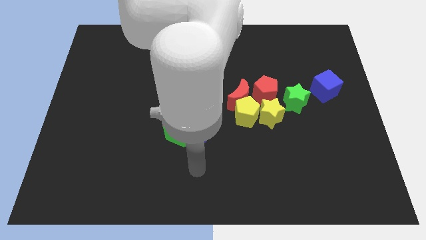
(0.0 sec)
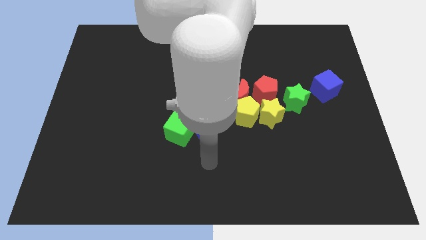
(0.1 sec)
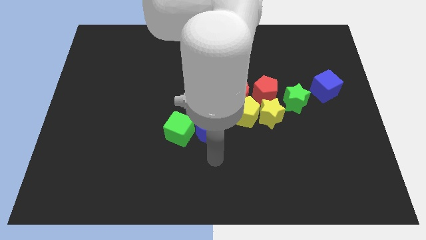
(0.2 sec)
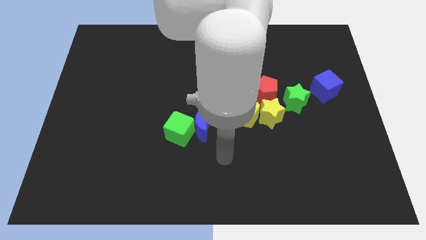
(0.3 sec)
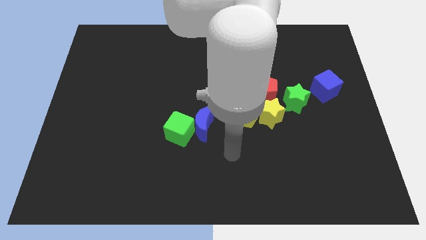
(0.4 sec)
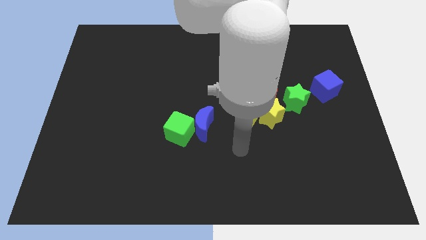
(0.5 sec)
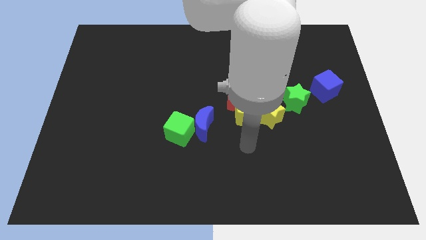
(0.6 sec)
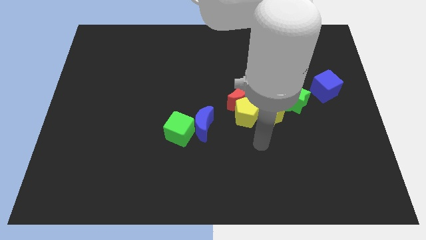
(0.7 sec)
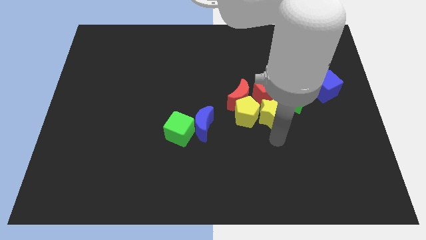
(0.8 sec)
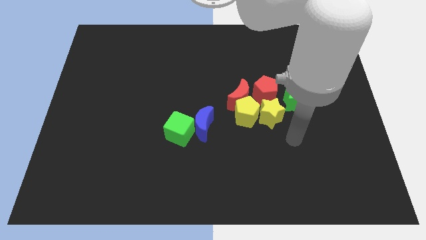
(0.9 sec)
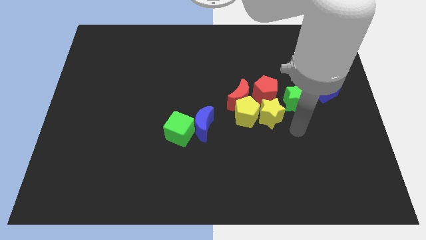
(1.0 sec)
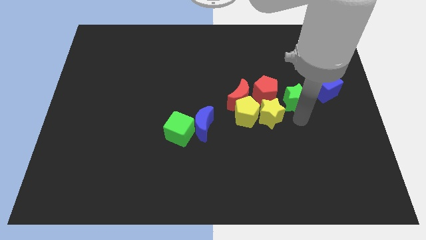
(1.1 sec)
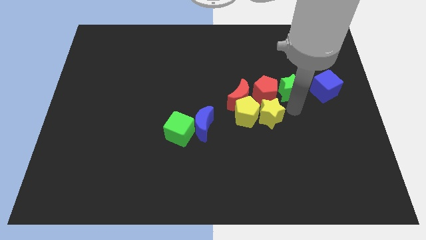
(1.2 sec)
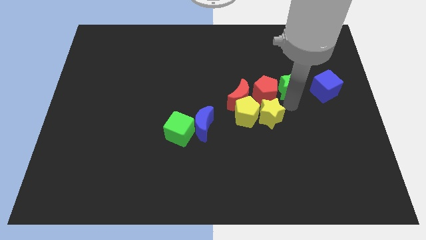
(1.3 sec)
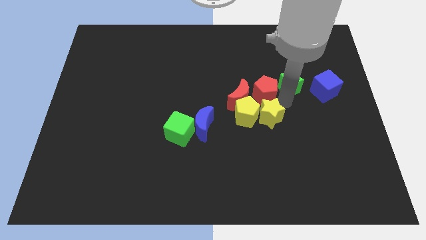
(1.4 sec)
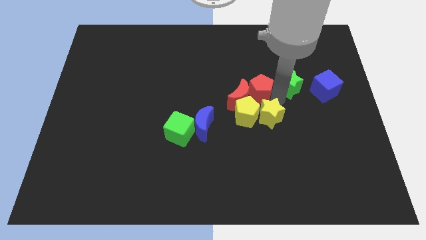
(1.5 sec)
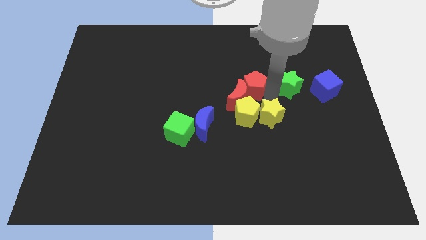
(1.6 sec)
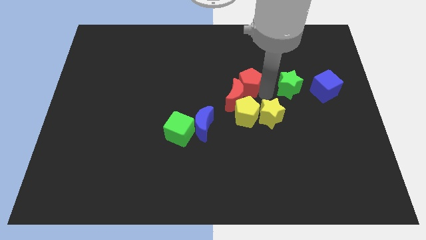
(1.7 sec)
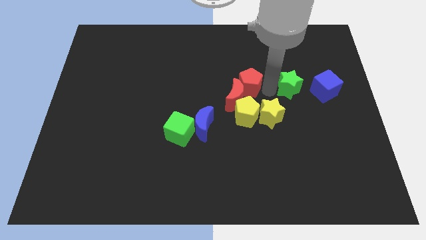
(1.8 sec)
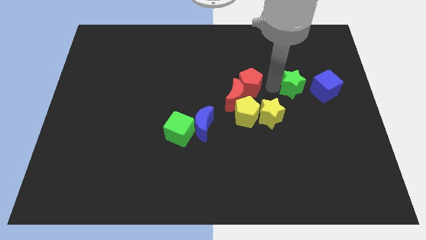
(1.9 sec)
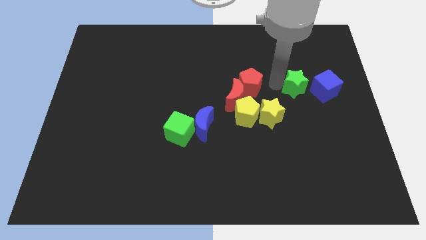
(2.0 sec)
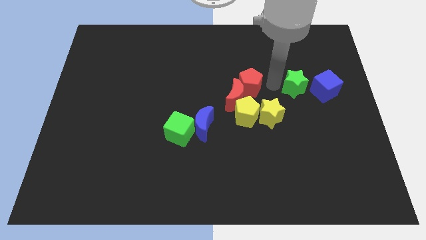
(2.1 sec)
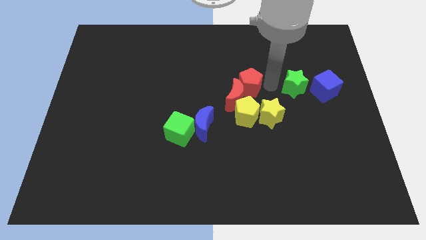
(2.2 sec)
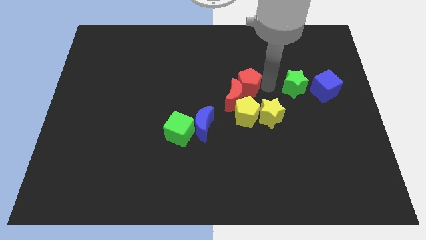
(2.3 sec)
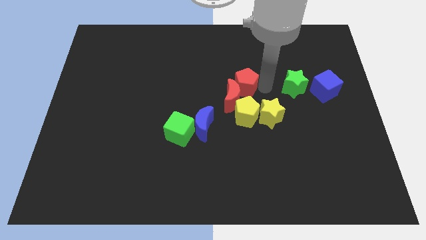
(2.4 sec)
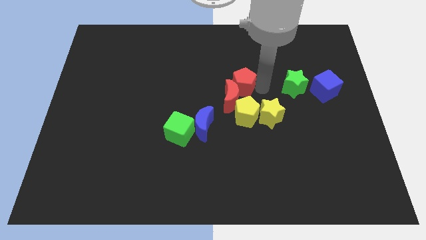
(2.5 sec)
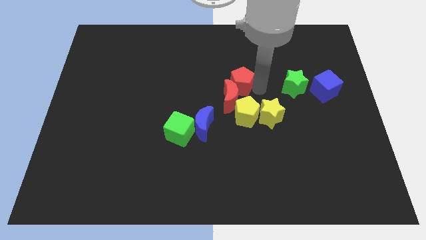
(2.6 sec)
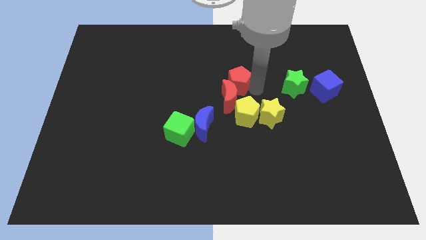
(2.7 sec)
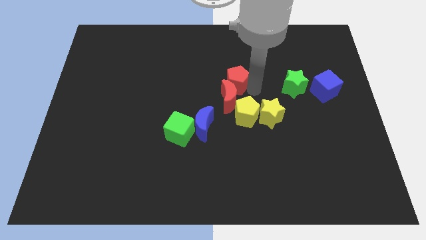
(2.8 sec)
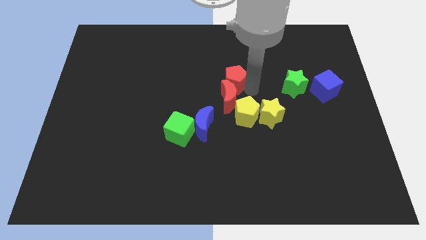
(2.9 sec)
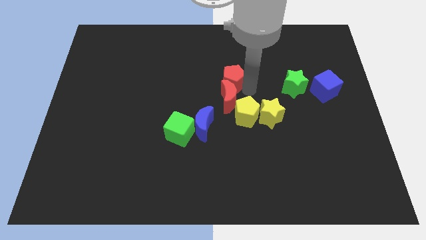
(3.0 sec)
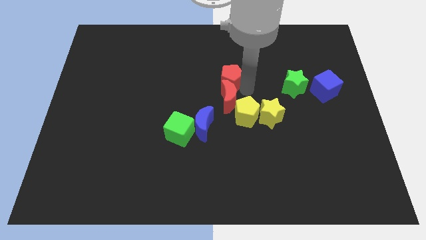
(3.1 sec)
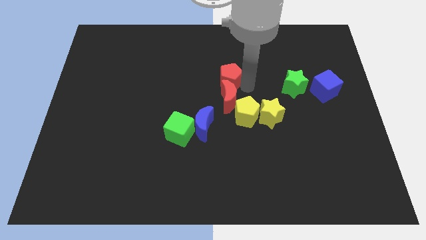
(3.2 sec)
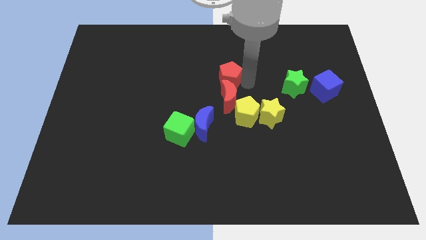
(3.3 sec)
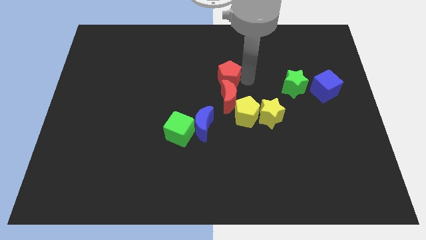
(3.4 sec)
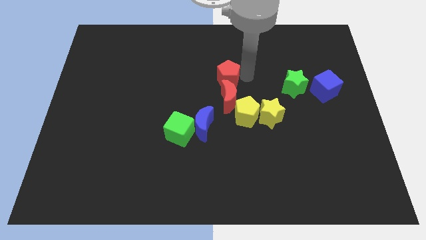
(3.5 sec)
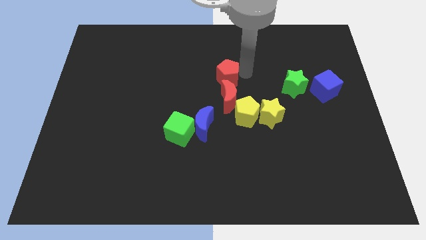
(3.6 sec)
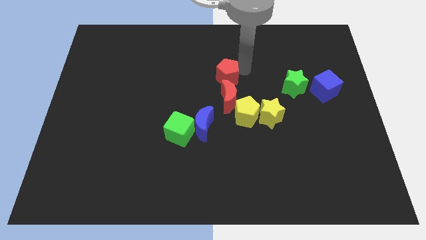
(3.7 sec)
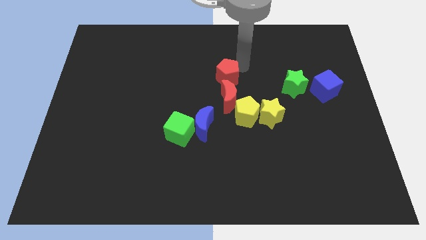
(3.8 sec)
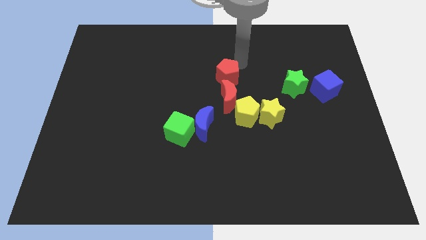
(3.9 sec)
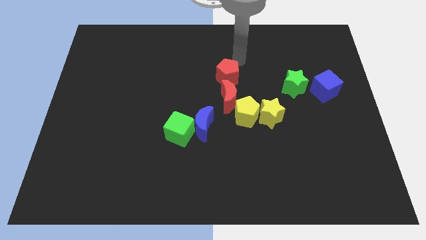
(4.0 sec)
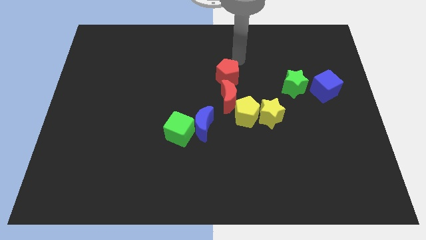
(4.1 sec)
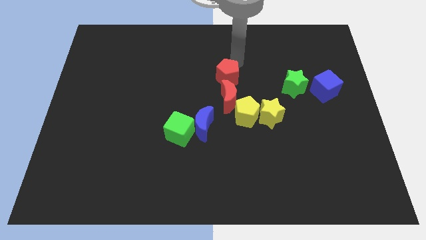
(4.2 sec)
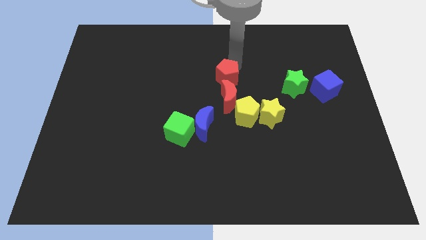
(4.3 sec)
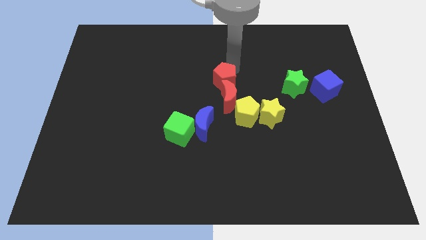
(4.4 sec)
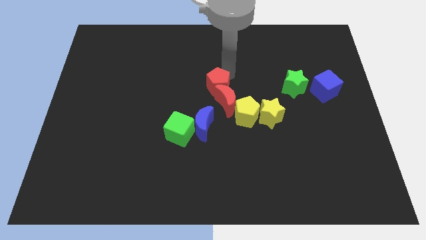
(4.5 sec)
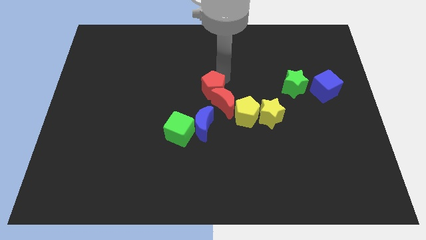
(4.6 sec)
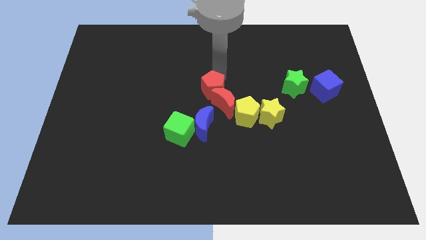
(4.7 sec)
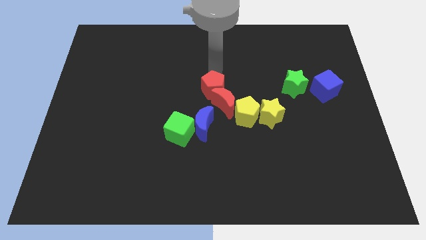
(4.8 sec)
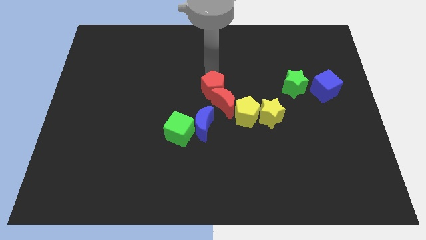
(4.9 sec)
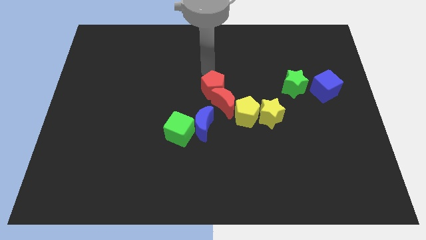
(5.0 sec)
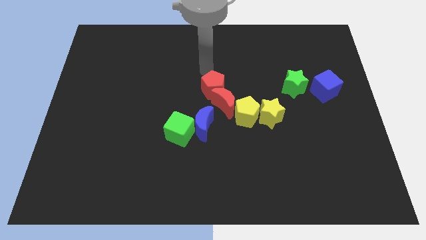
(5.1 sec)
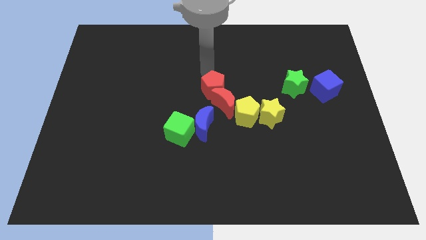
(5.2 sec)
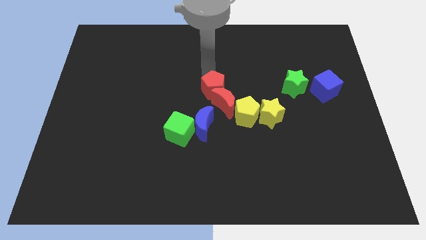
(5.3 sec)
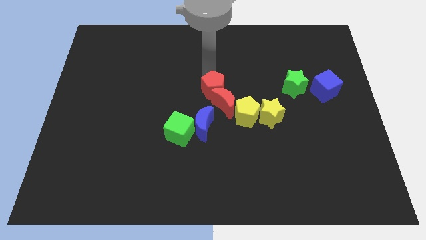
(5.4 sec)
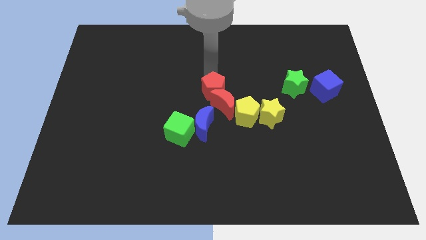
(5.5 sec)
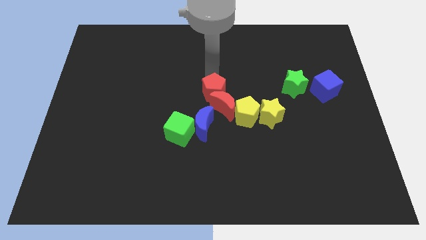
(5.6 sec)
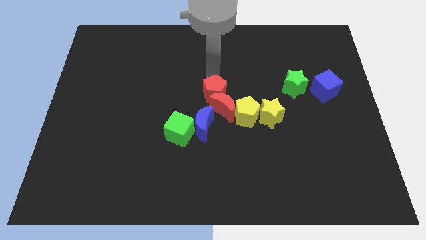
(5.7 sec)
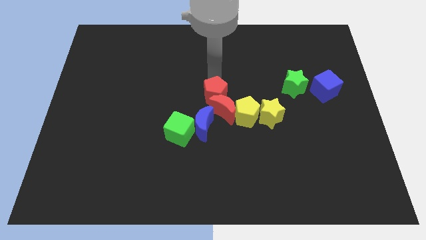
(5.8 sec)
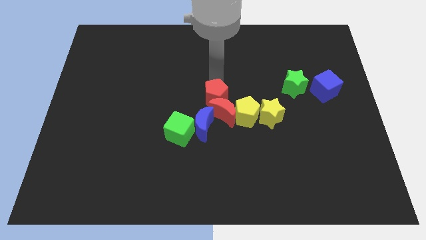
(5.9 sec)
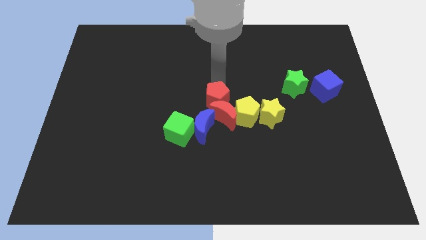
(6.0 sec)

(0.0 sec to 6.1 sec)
slightly move the red pentagon downwards and left

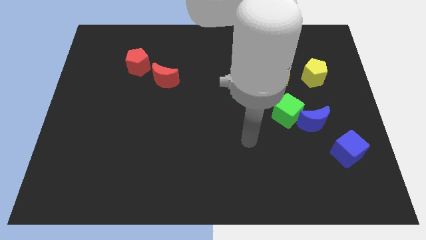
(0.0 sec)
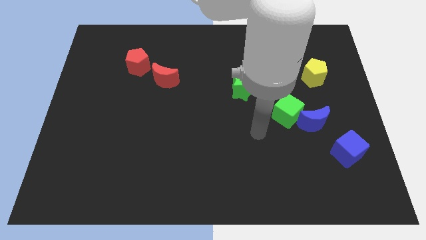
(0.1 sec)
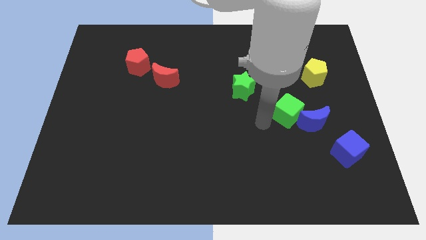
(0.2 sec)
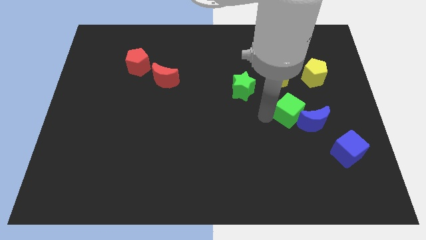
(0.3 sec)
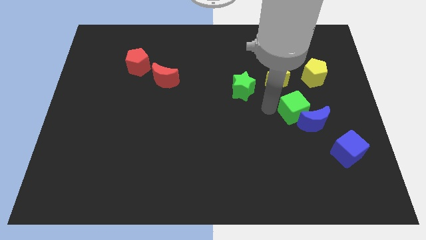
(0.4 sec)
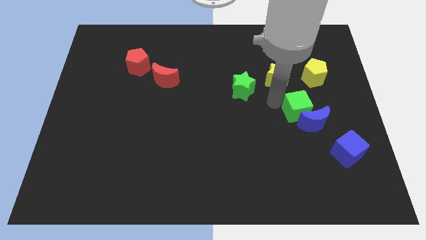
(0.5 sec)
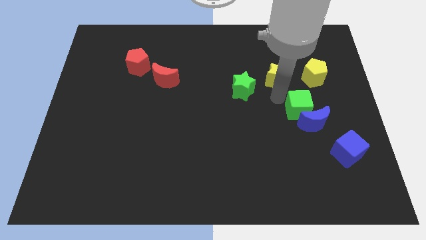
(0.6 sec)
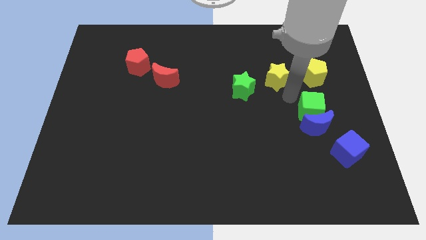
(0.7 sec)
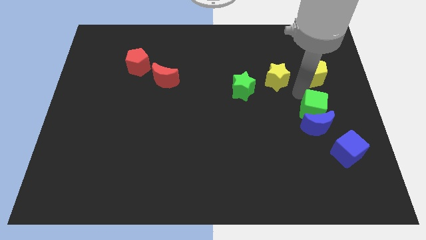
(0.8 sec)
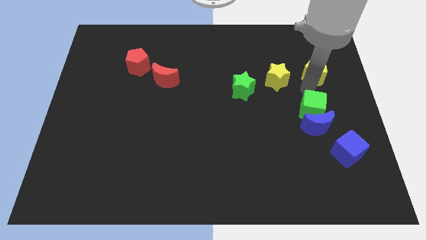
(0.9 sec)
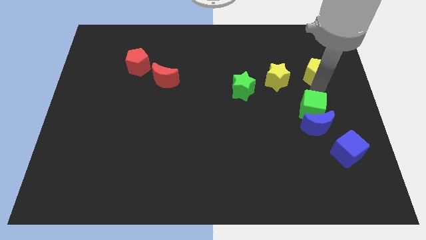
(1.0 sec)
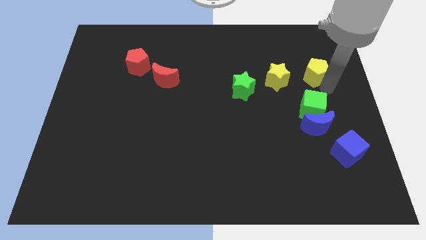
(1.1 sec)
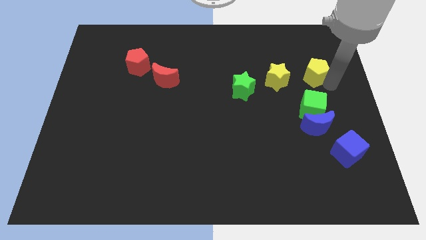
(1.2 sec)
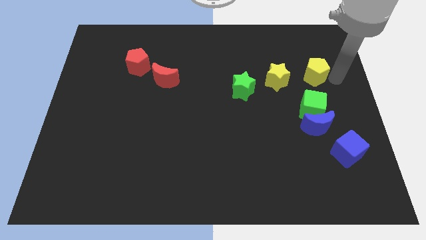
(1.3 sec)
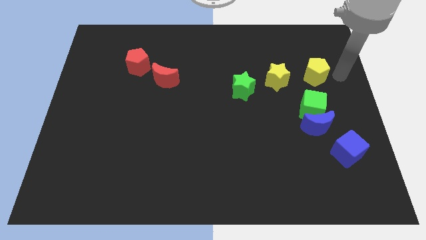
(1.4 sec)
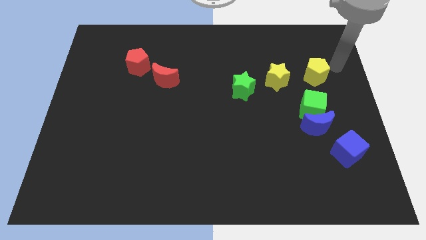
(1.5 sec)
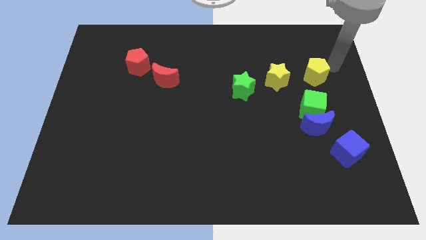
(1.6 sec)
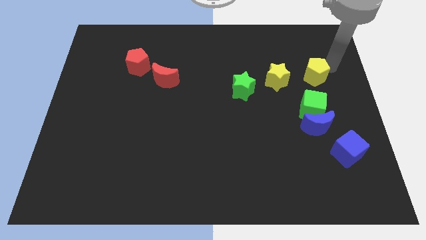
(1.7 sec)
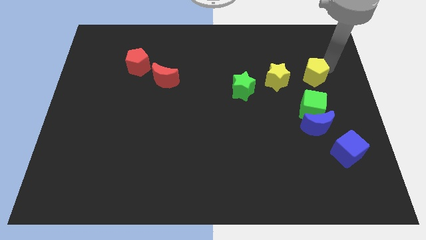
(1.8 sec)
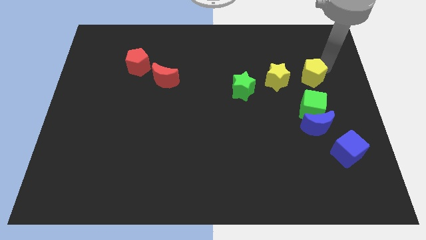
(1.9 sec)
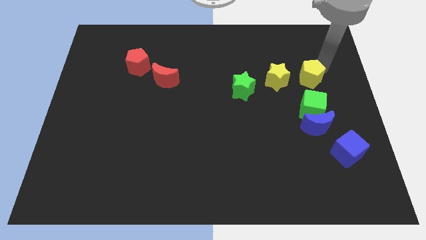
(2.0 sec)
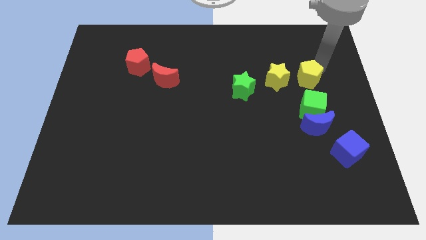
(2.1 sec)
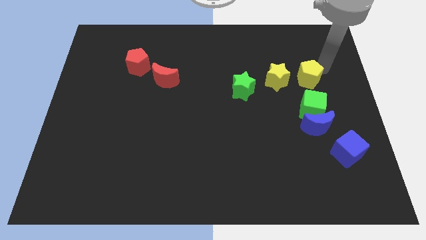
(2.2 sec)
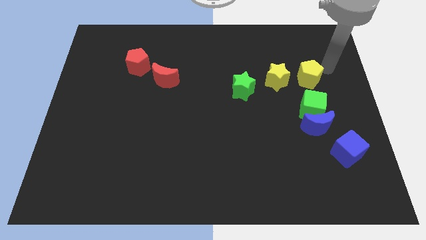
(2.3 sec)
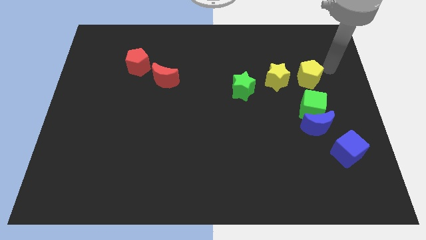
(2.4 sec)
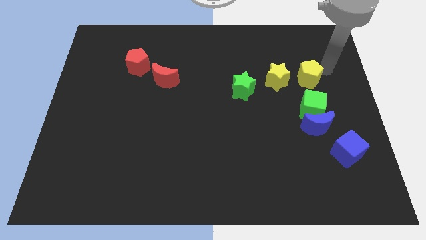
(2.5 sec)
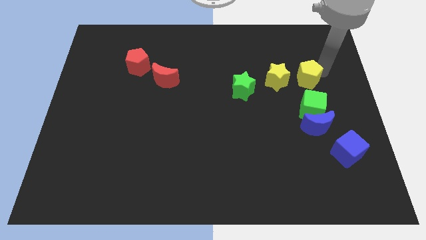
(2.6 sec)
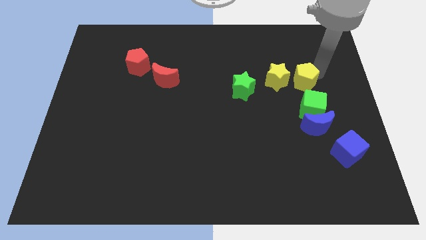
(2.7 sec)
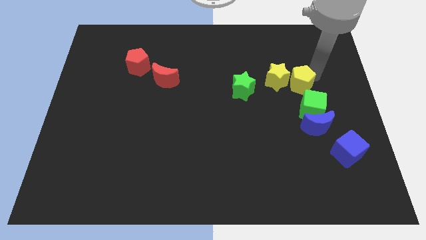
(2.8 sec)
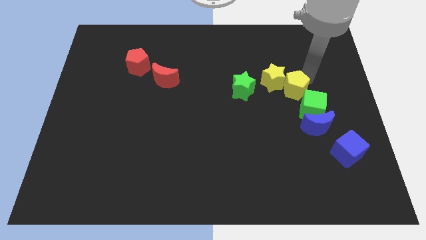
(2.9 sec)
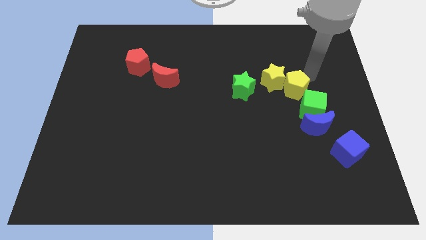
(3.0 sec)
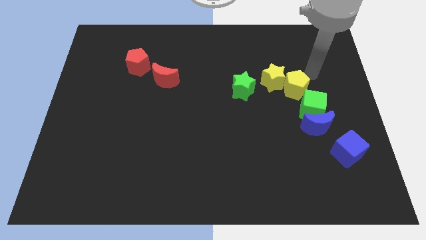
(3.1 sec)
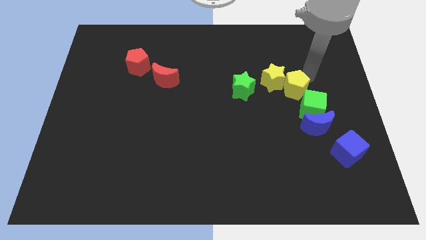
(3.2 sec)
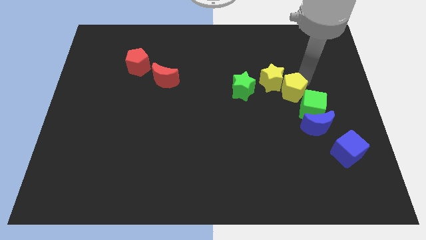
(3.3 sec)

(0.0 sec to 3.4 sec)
move the yellow pentagon down and then left a bit
